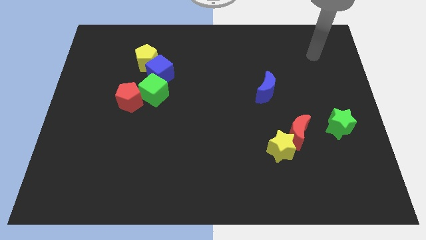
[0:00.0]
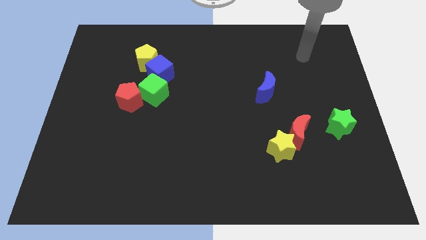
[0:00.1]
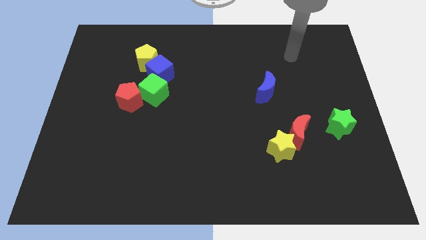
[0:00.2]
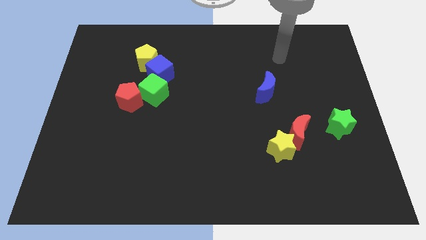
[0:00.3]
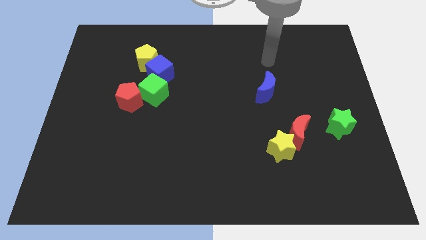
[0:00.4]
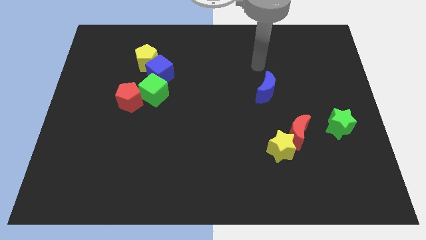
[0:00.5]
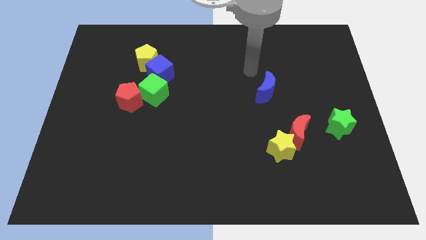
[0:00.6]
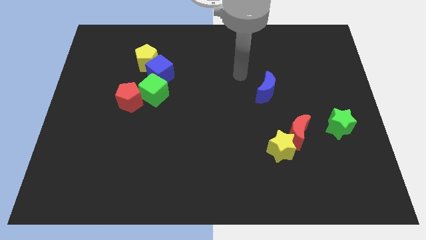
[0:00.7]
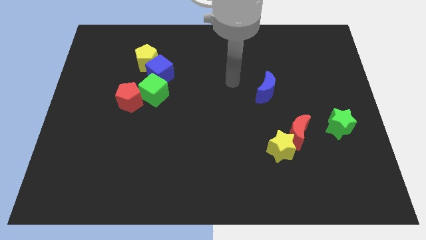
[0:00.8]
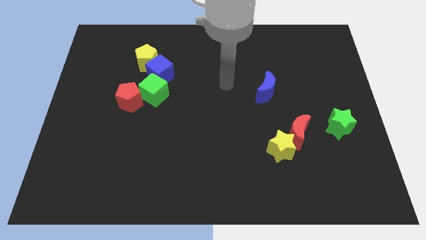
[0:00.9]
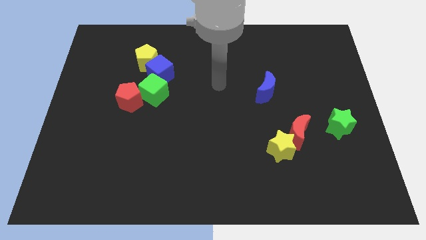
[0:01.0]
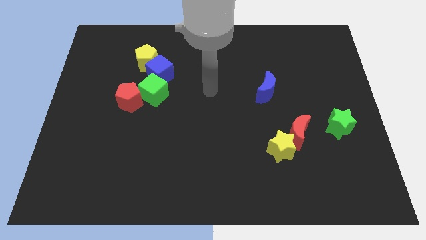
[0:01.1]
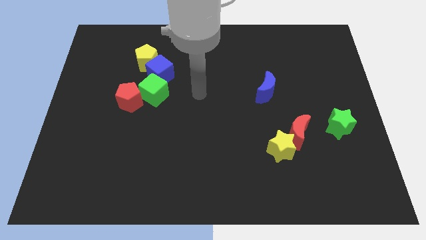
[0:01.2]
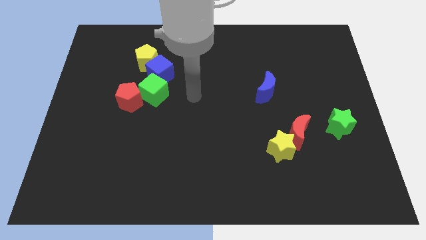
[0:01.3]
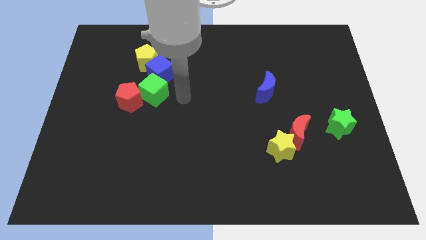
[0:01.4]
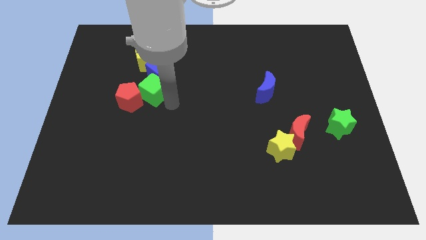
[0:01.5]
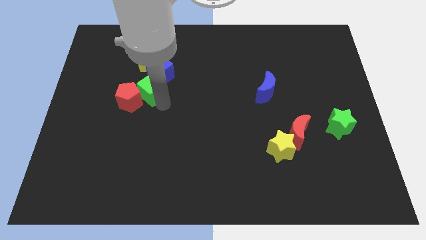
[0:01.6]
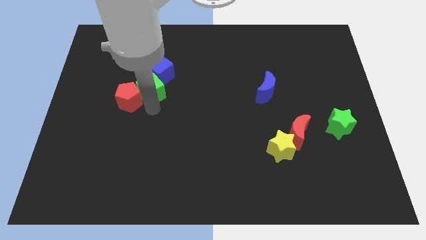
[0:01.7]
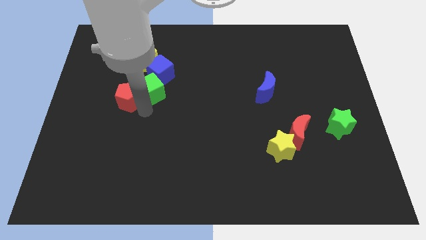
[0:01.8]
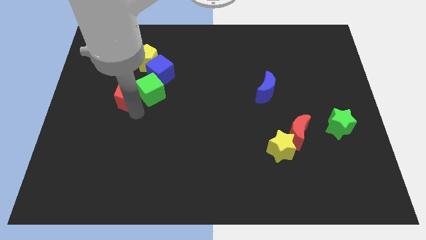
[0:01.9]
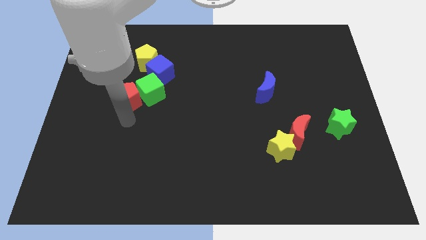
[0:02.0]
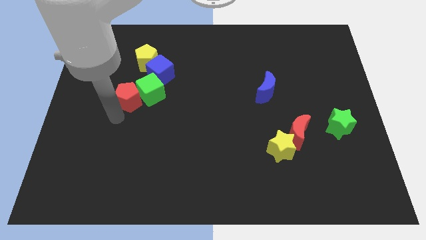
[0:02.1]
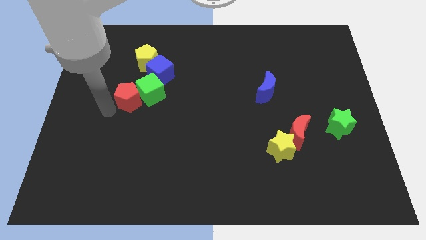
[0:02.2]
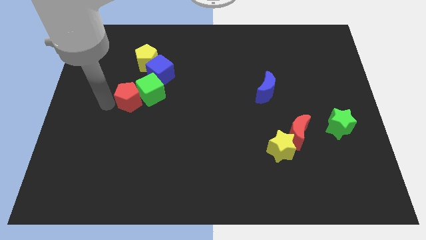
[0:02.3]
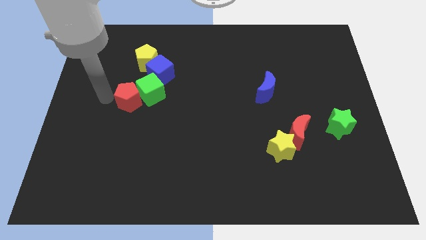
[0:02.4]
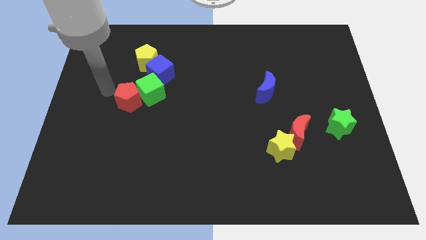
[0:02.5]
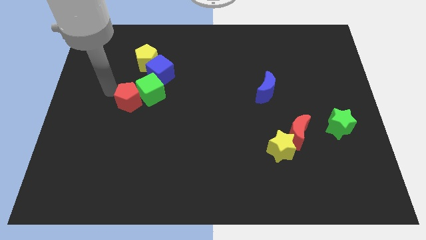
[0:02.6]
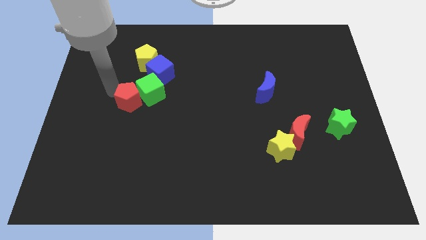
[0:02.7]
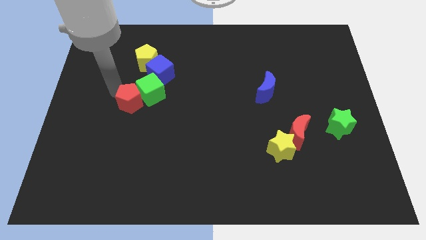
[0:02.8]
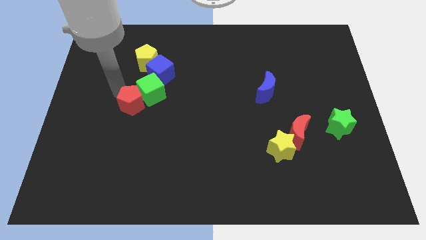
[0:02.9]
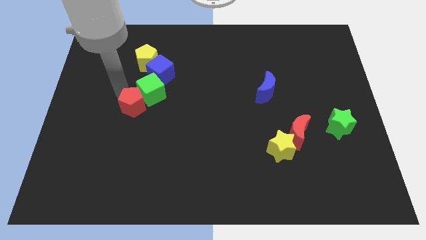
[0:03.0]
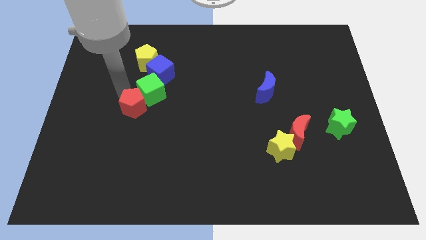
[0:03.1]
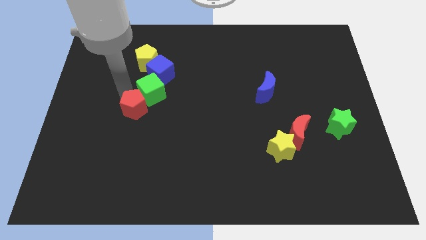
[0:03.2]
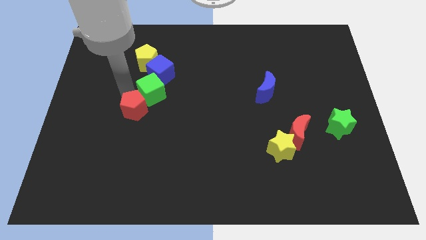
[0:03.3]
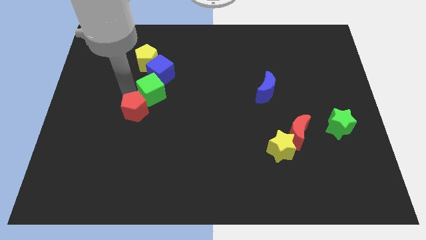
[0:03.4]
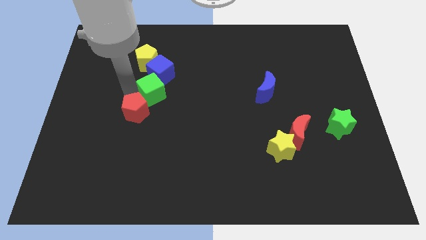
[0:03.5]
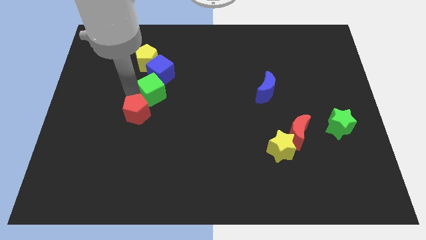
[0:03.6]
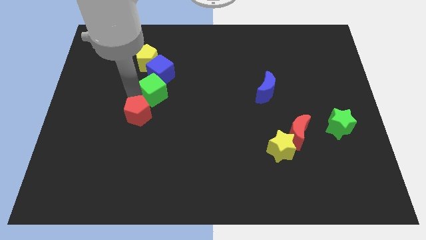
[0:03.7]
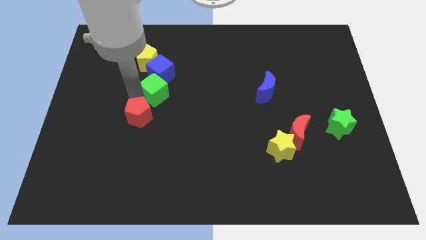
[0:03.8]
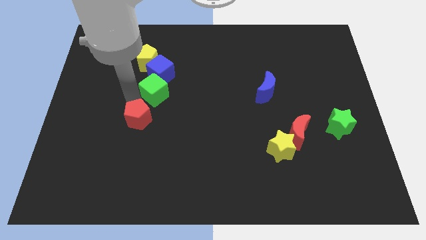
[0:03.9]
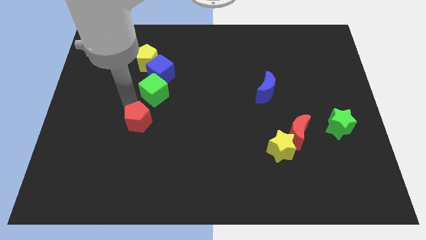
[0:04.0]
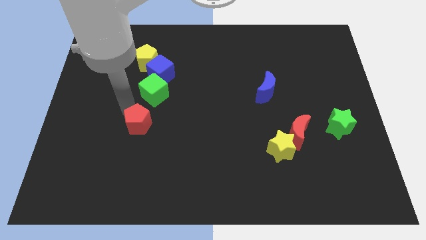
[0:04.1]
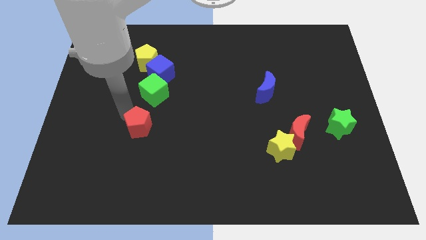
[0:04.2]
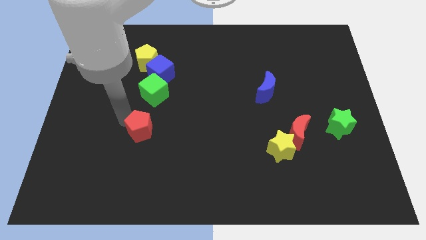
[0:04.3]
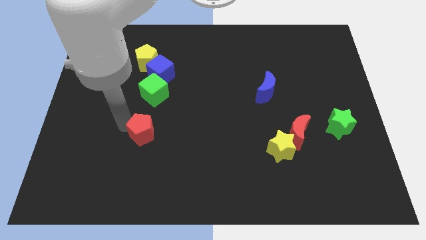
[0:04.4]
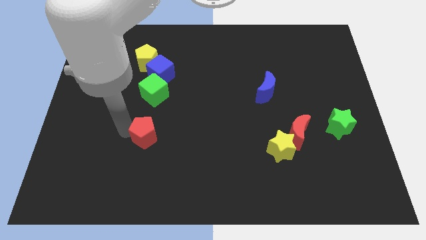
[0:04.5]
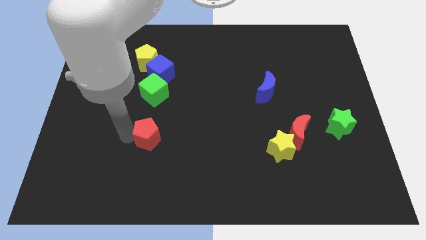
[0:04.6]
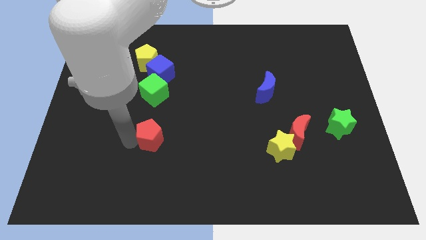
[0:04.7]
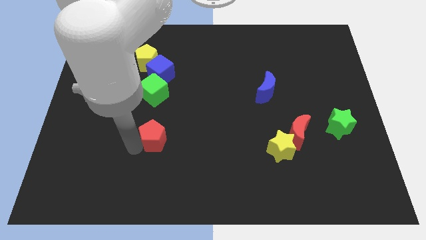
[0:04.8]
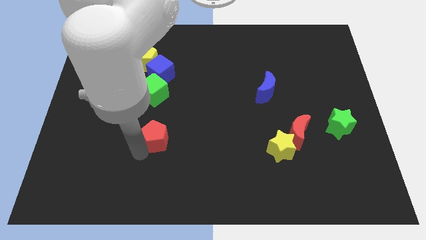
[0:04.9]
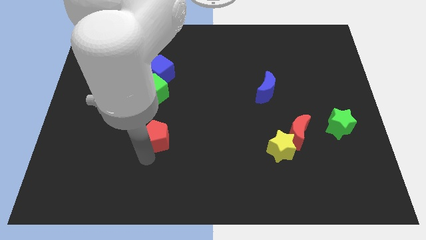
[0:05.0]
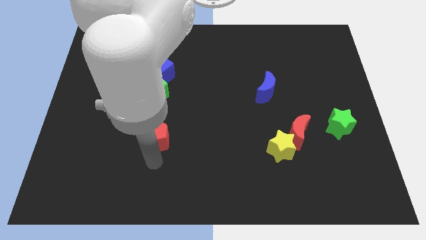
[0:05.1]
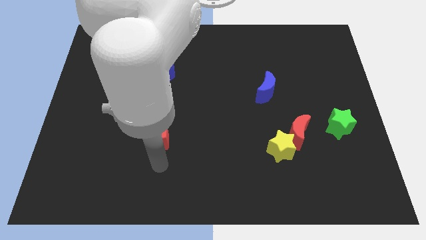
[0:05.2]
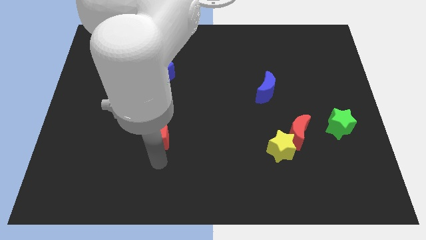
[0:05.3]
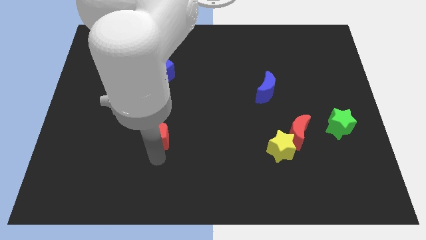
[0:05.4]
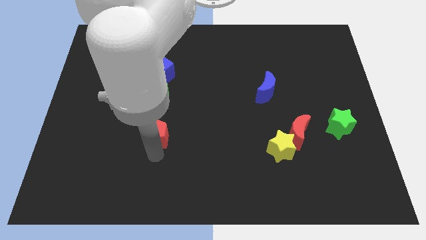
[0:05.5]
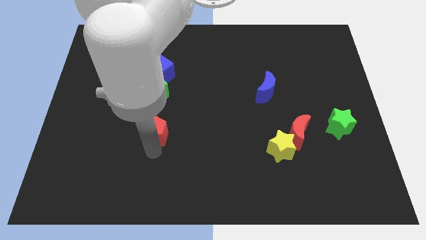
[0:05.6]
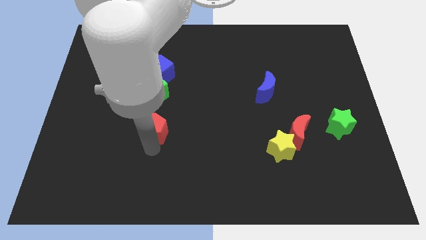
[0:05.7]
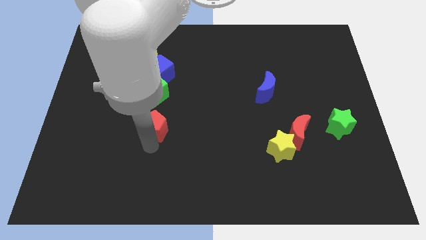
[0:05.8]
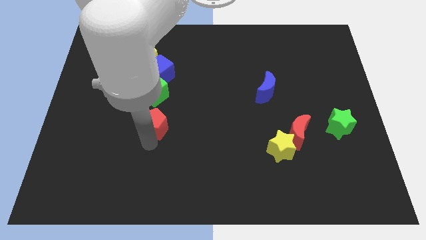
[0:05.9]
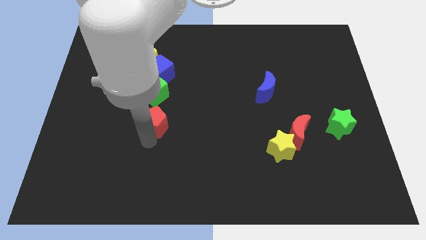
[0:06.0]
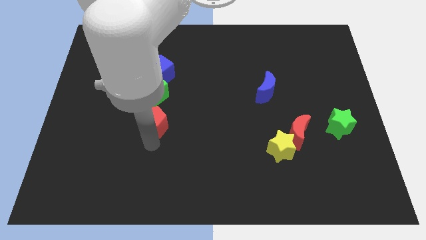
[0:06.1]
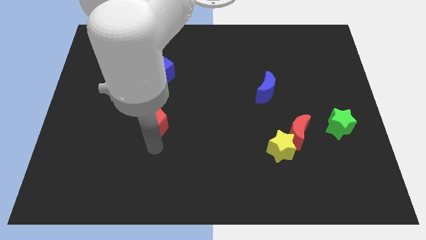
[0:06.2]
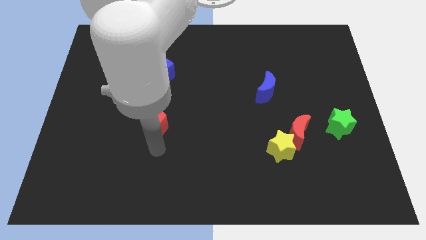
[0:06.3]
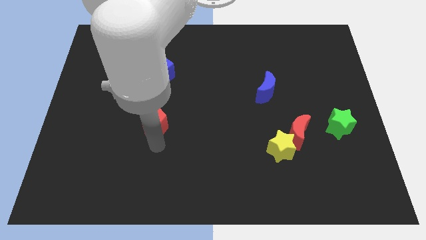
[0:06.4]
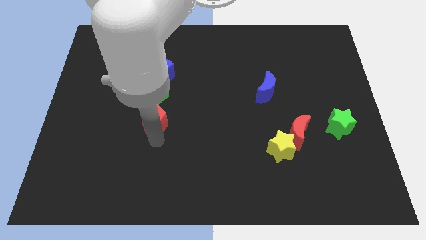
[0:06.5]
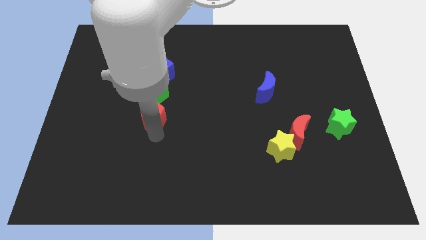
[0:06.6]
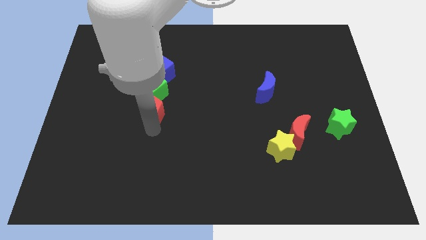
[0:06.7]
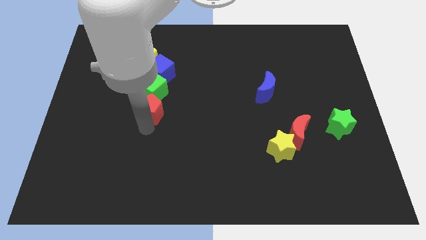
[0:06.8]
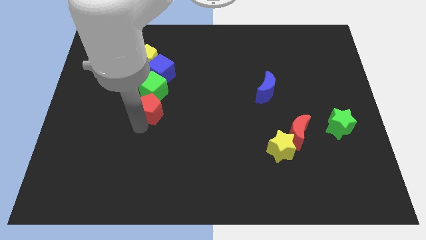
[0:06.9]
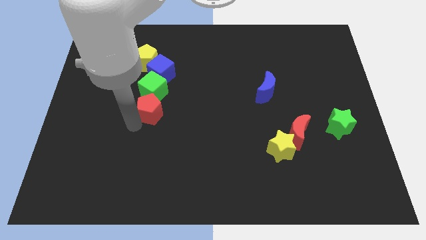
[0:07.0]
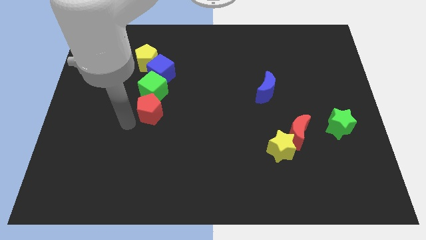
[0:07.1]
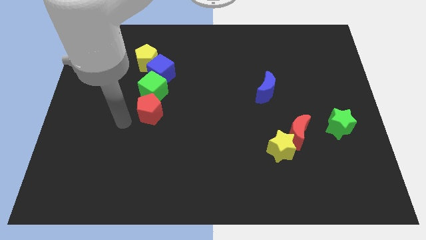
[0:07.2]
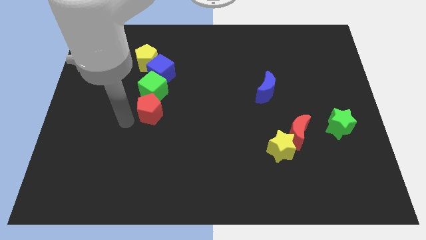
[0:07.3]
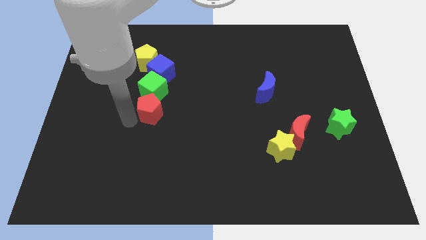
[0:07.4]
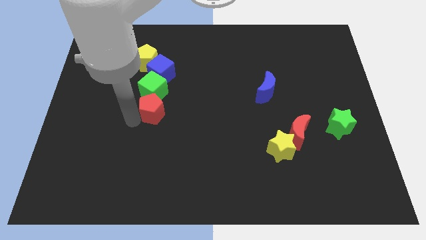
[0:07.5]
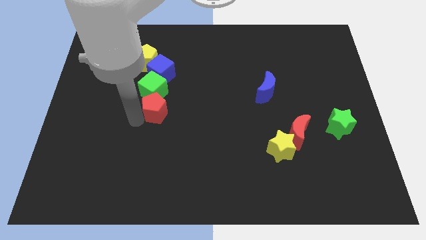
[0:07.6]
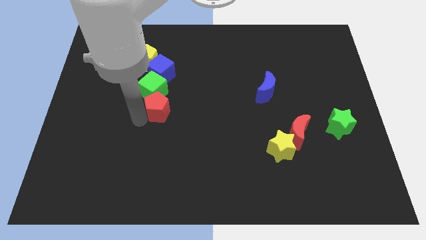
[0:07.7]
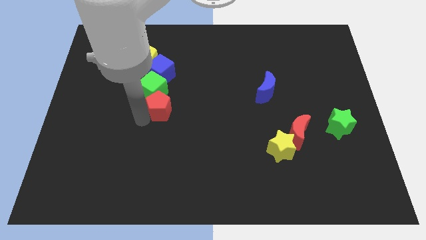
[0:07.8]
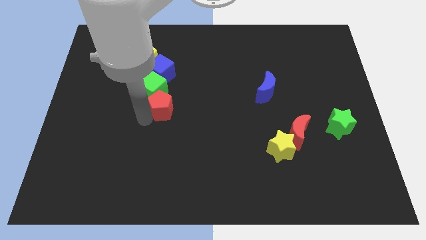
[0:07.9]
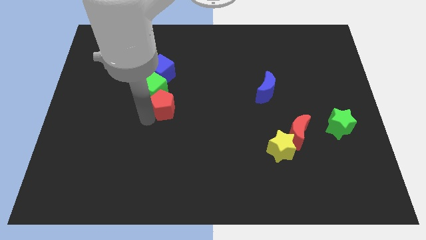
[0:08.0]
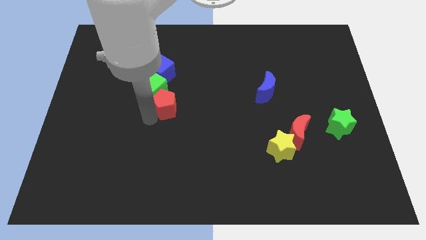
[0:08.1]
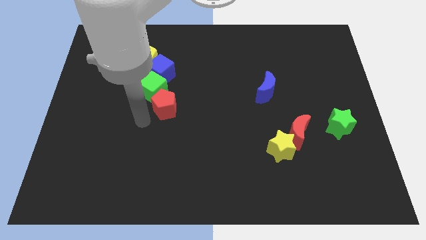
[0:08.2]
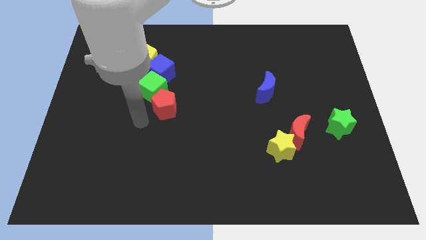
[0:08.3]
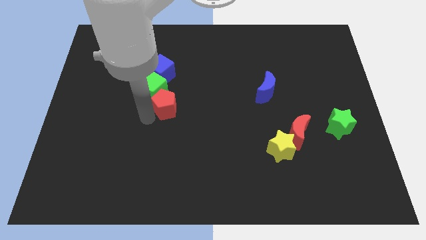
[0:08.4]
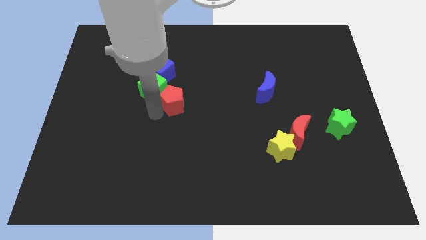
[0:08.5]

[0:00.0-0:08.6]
move the red pentagon just right of the green cube
